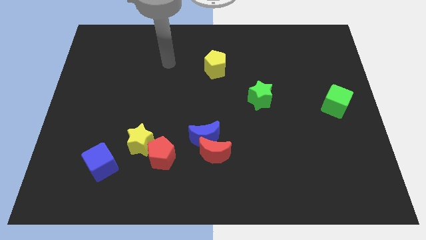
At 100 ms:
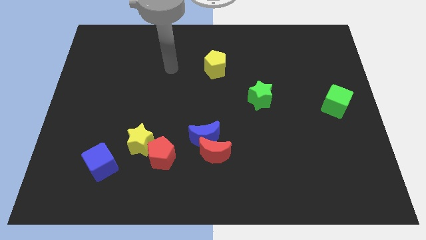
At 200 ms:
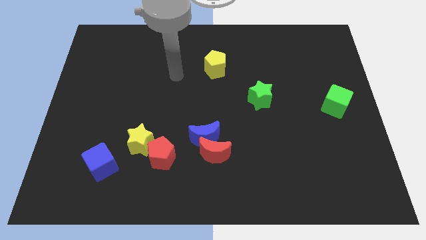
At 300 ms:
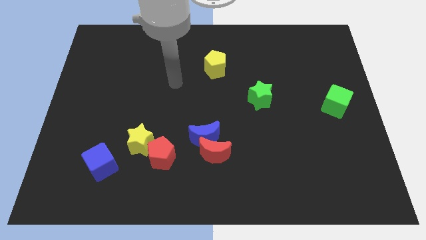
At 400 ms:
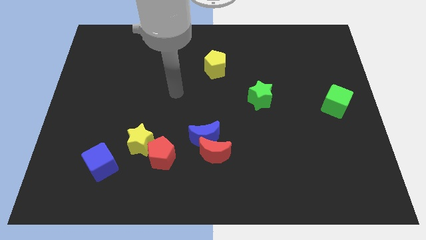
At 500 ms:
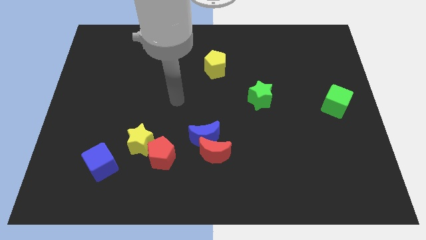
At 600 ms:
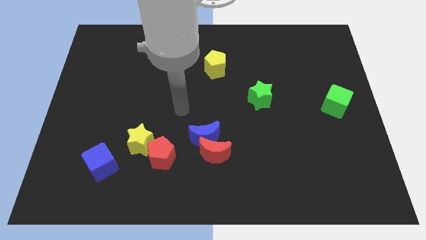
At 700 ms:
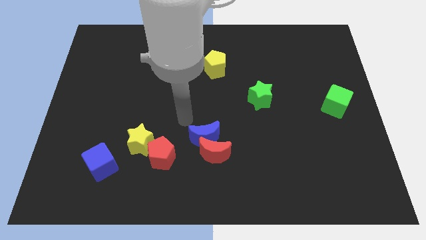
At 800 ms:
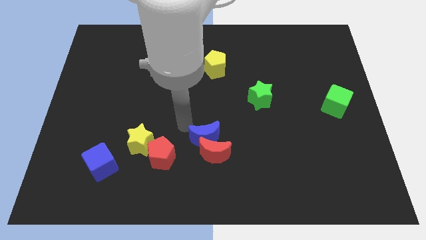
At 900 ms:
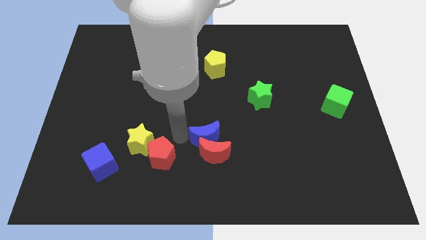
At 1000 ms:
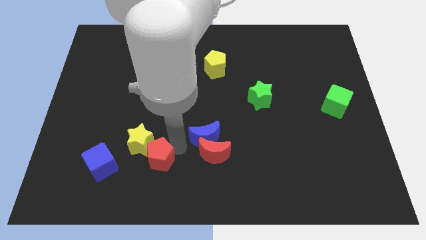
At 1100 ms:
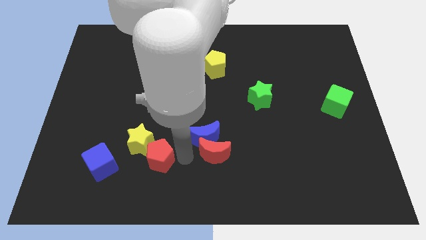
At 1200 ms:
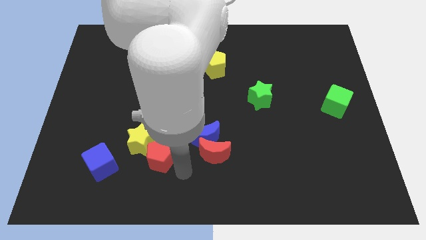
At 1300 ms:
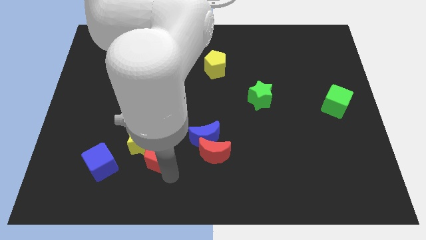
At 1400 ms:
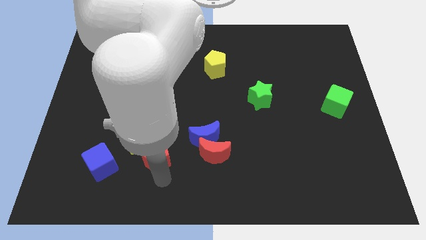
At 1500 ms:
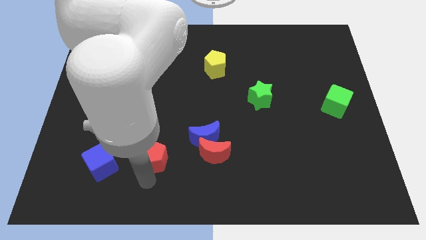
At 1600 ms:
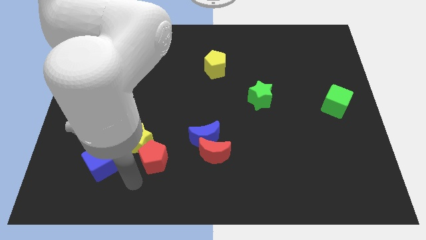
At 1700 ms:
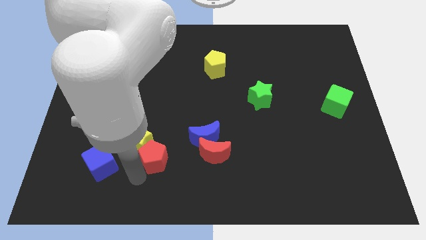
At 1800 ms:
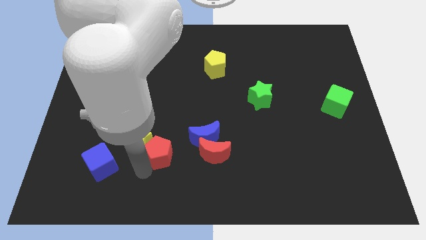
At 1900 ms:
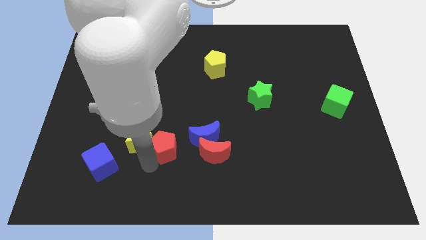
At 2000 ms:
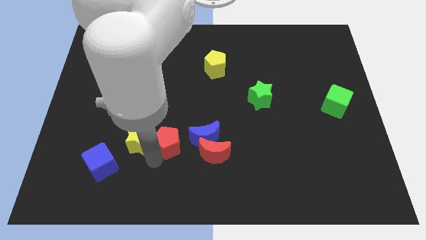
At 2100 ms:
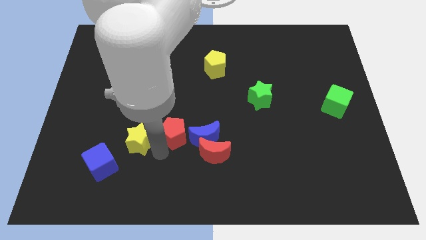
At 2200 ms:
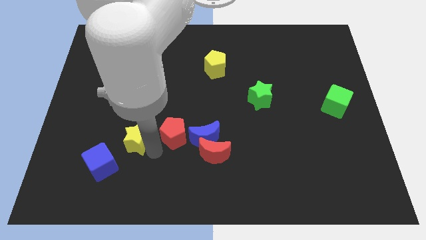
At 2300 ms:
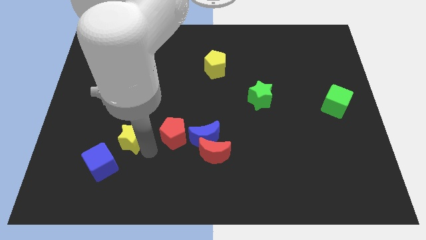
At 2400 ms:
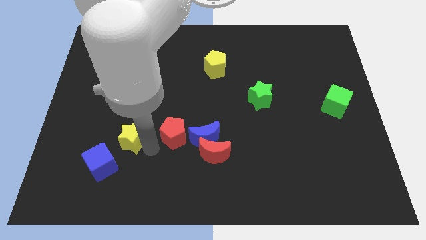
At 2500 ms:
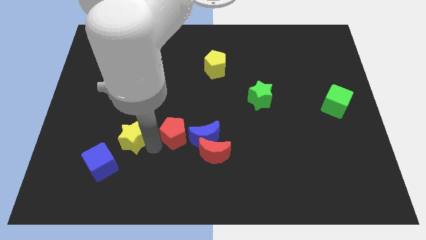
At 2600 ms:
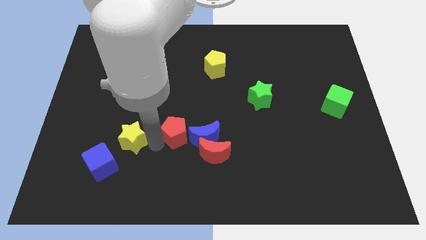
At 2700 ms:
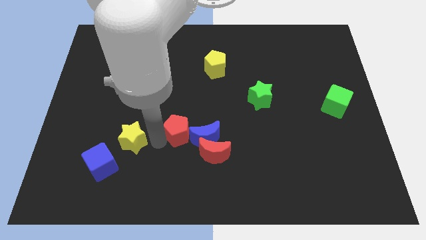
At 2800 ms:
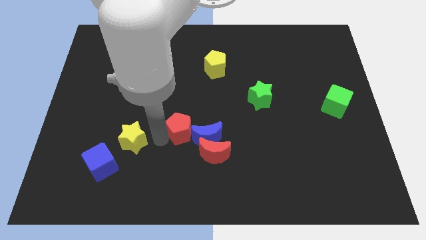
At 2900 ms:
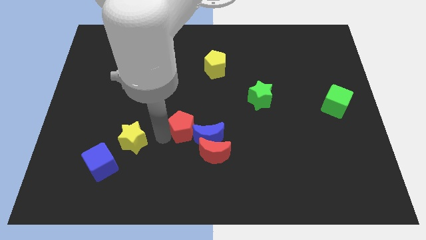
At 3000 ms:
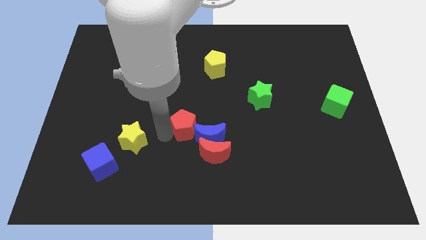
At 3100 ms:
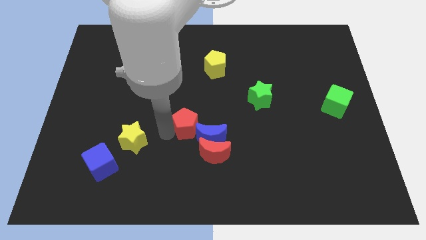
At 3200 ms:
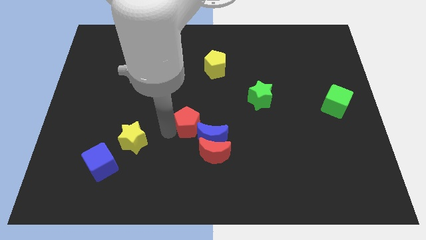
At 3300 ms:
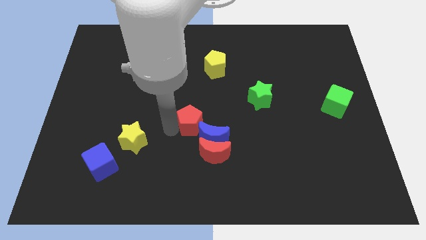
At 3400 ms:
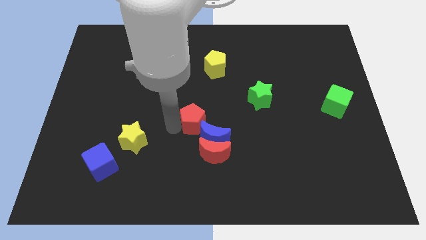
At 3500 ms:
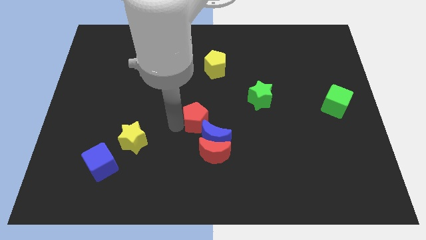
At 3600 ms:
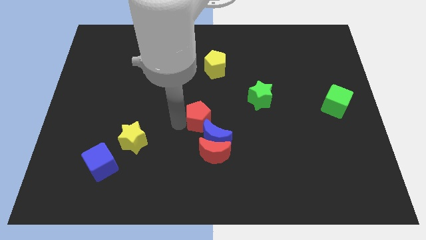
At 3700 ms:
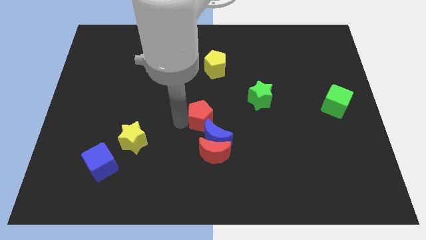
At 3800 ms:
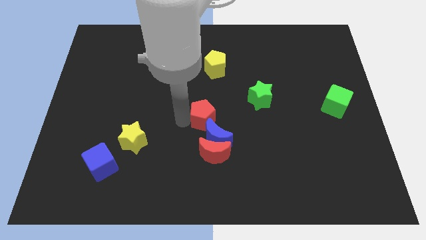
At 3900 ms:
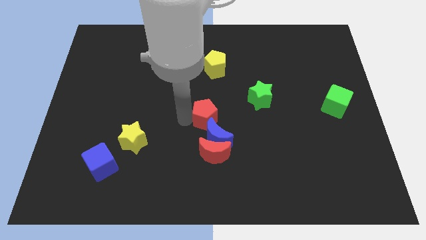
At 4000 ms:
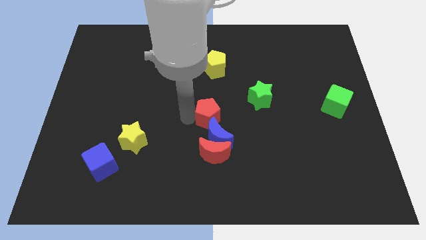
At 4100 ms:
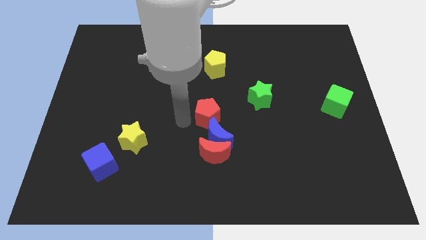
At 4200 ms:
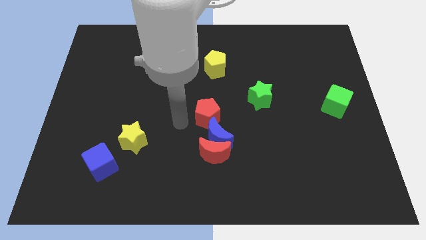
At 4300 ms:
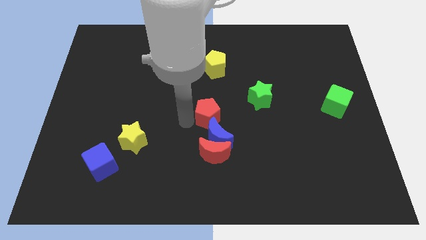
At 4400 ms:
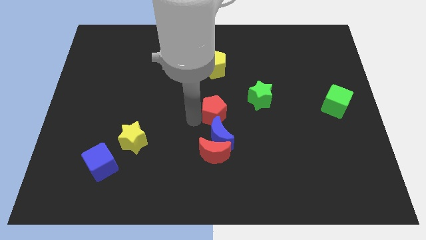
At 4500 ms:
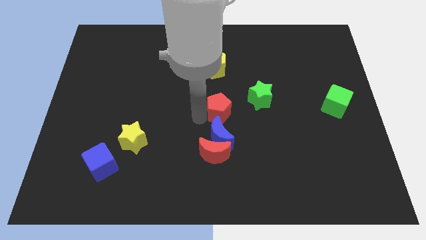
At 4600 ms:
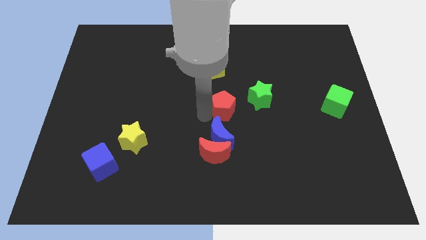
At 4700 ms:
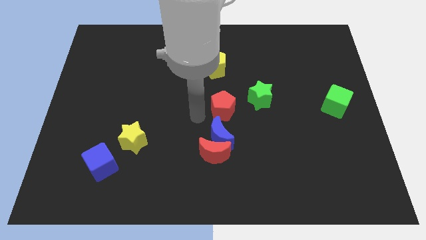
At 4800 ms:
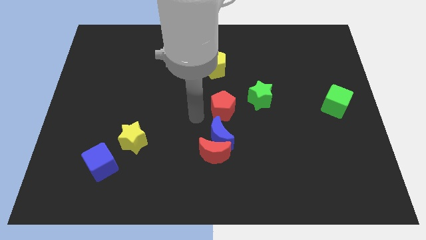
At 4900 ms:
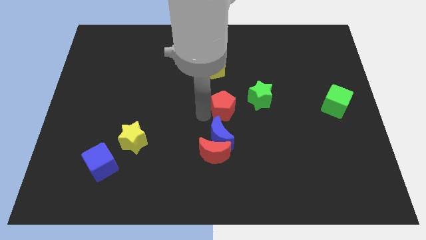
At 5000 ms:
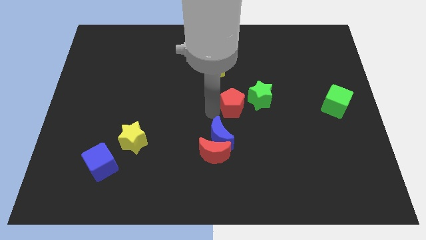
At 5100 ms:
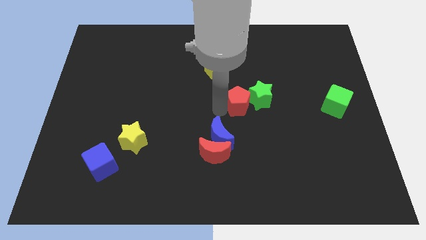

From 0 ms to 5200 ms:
move the red pentagon next to the green star

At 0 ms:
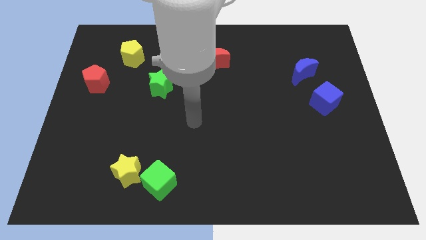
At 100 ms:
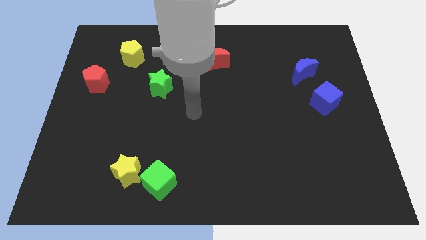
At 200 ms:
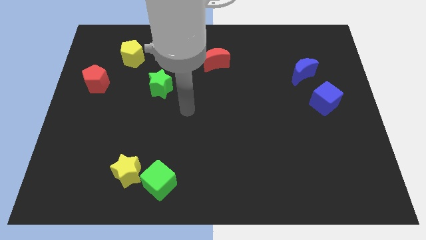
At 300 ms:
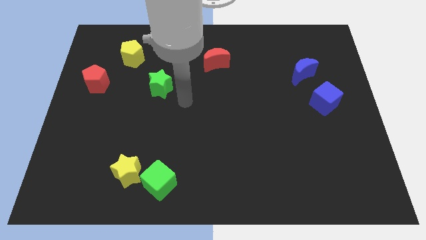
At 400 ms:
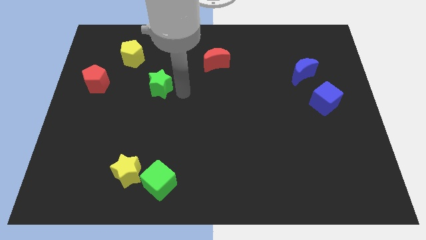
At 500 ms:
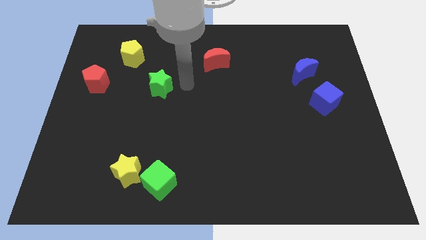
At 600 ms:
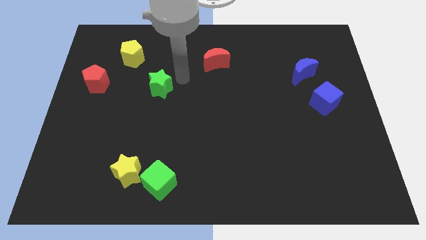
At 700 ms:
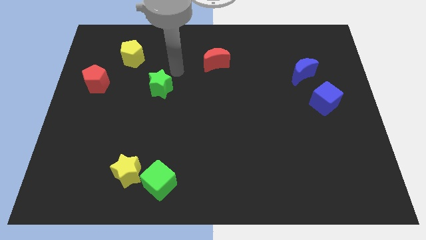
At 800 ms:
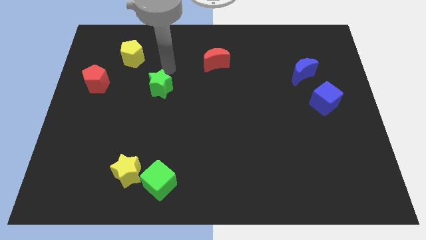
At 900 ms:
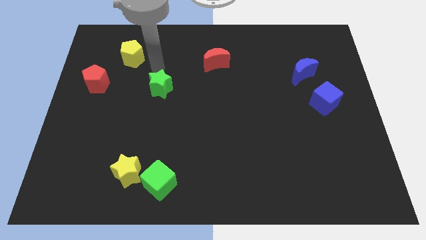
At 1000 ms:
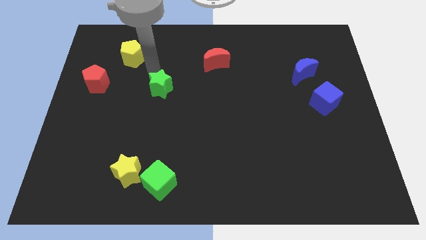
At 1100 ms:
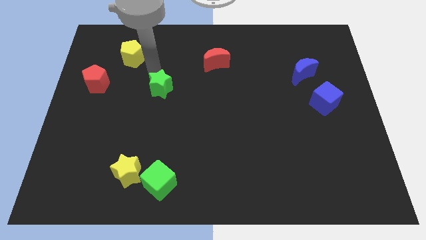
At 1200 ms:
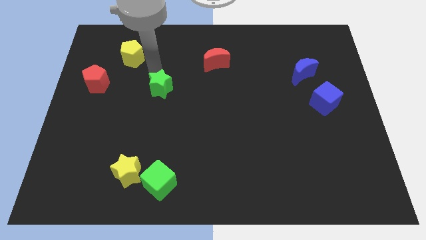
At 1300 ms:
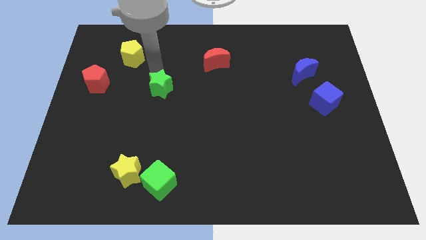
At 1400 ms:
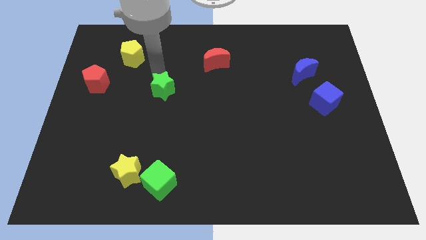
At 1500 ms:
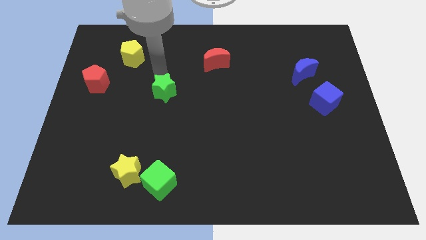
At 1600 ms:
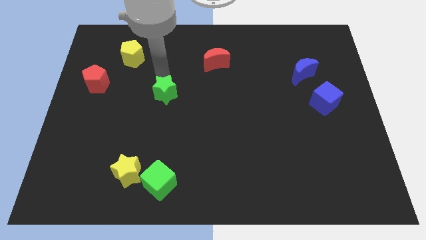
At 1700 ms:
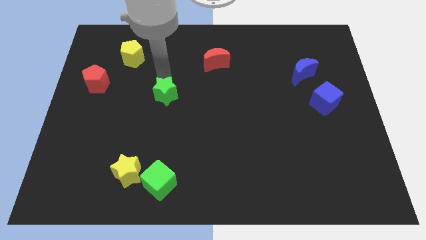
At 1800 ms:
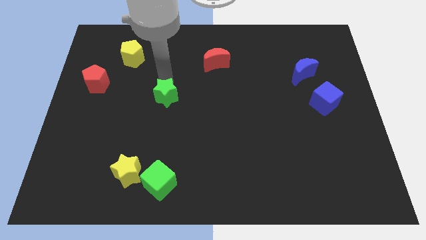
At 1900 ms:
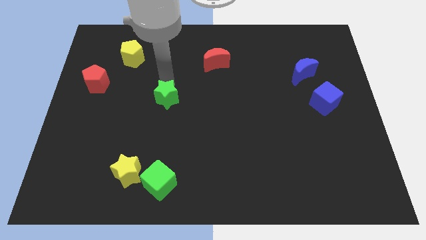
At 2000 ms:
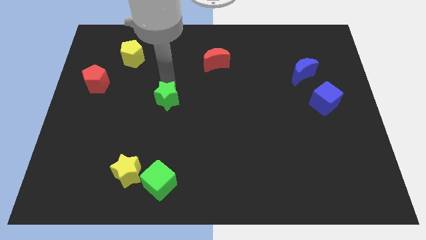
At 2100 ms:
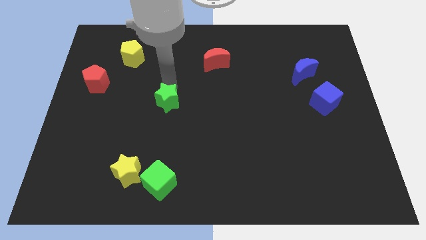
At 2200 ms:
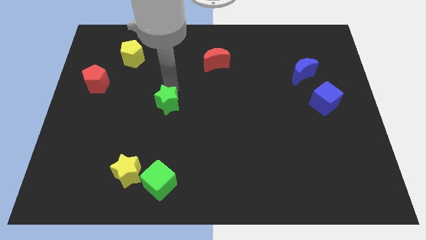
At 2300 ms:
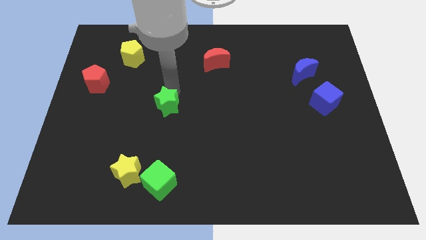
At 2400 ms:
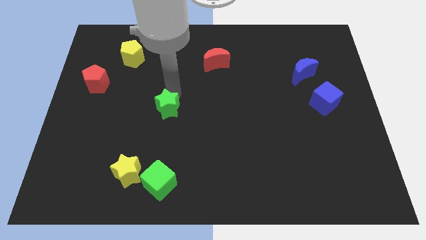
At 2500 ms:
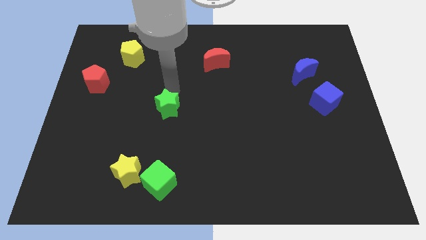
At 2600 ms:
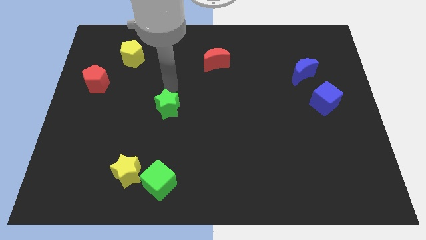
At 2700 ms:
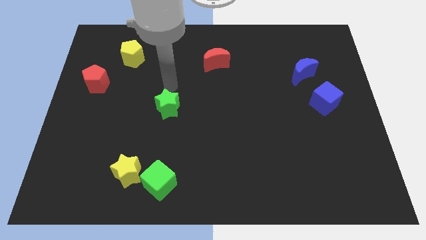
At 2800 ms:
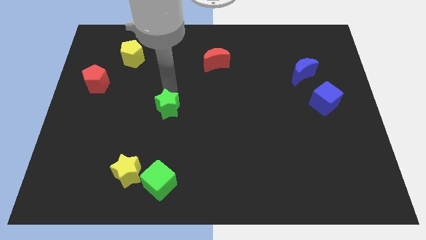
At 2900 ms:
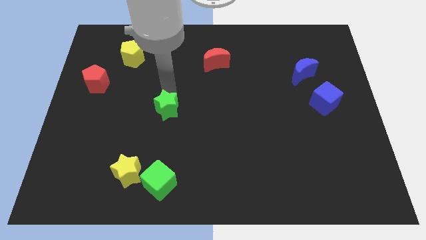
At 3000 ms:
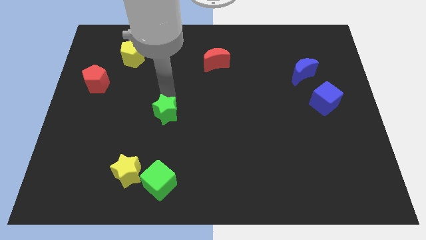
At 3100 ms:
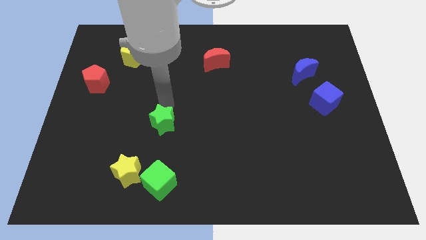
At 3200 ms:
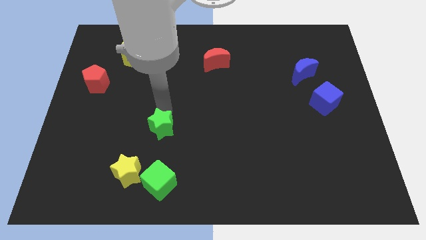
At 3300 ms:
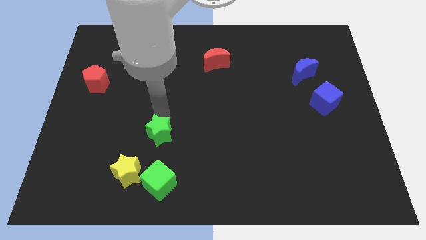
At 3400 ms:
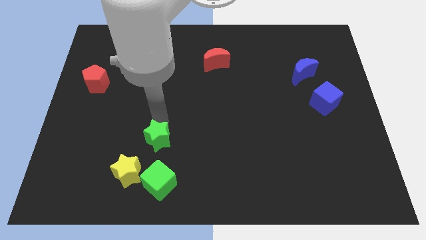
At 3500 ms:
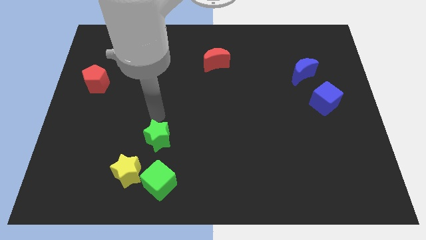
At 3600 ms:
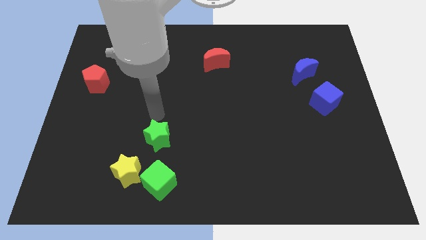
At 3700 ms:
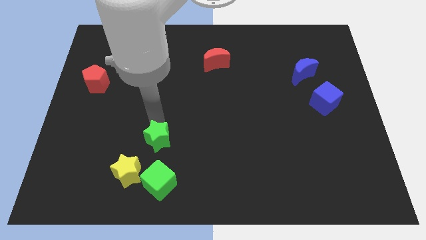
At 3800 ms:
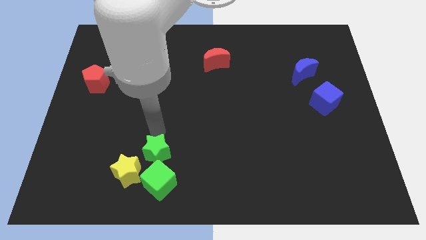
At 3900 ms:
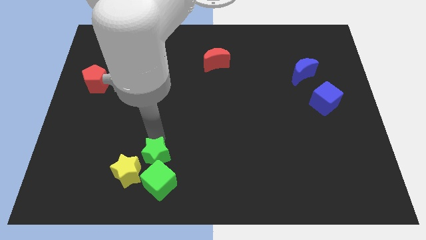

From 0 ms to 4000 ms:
slide the green star next to the green cube
